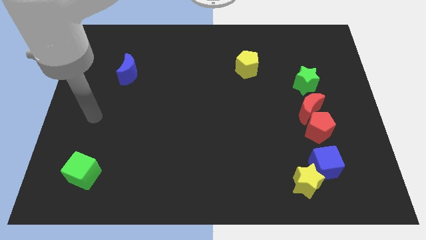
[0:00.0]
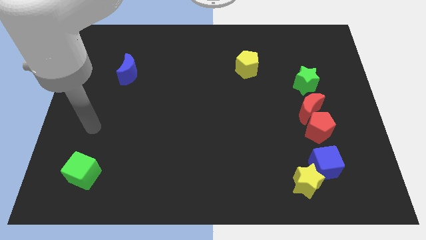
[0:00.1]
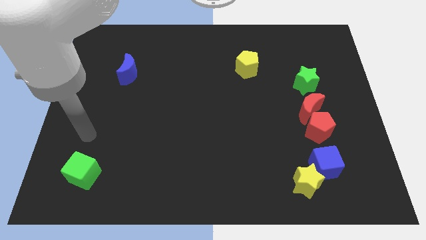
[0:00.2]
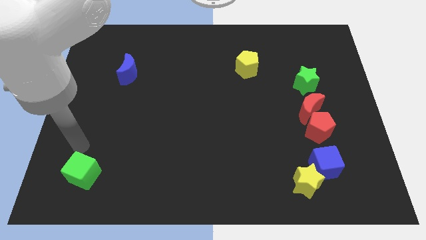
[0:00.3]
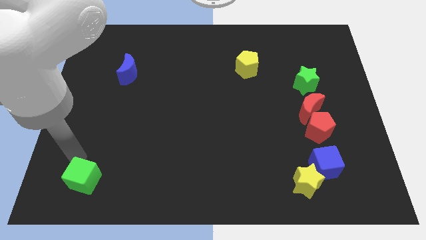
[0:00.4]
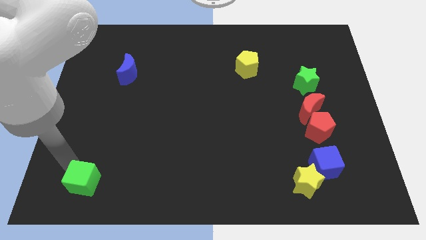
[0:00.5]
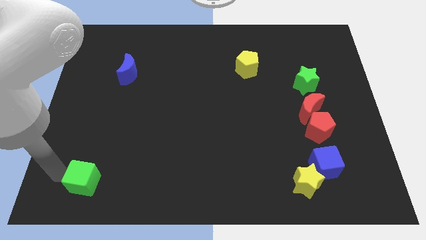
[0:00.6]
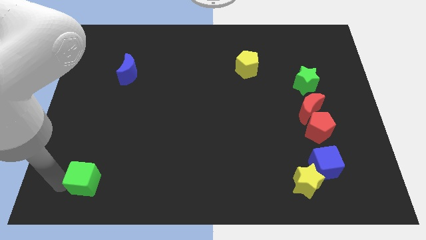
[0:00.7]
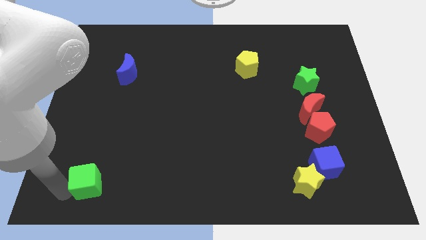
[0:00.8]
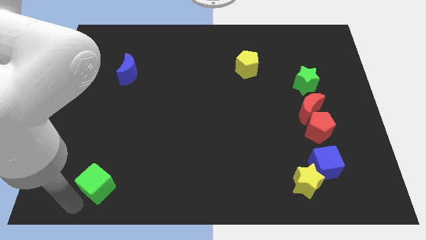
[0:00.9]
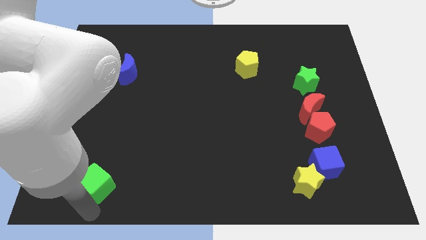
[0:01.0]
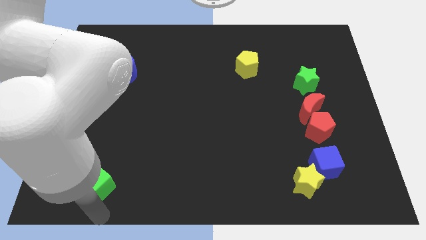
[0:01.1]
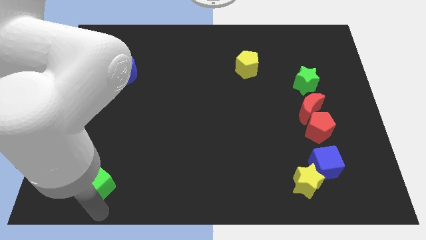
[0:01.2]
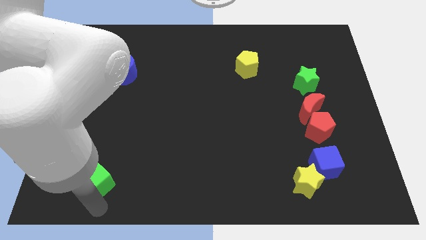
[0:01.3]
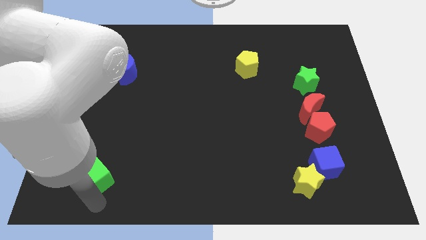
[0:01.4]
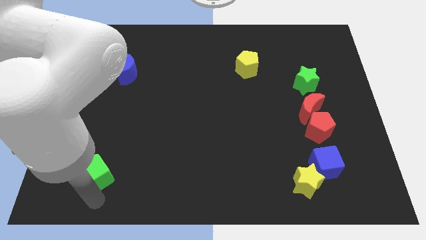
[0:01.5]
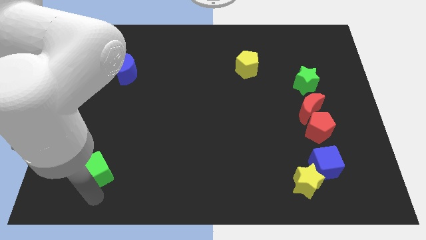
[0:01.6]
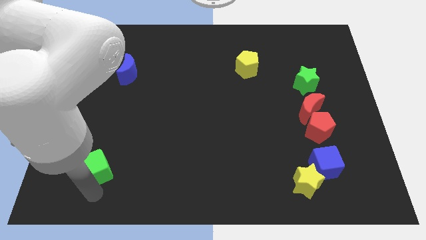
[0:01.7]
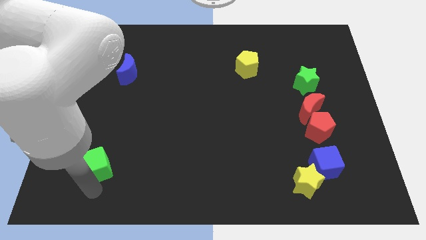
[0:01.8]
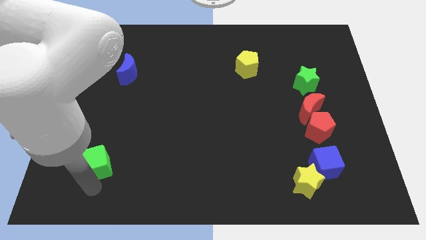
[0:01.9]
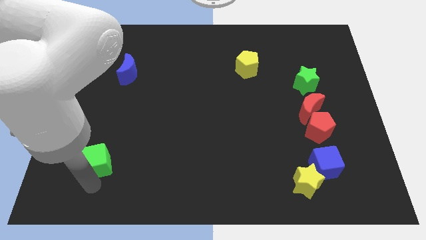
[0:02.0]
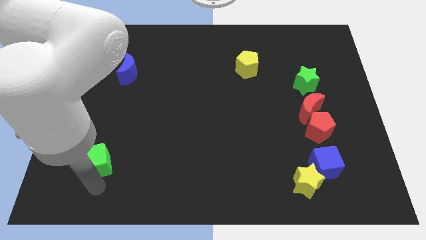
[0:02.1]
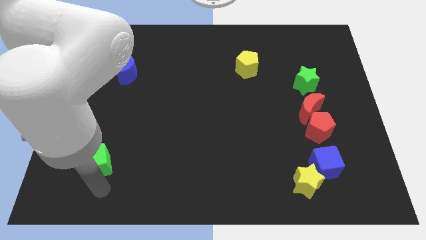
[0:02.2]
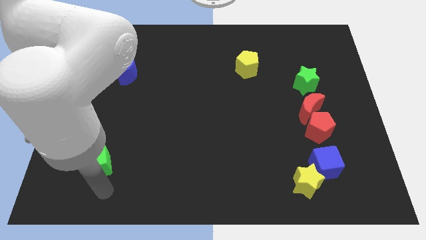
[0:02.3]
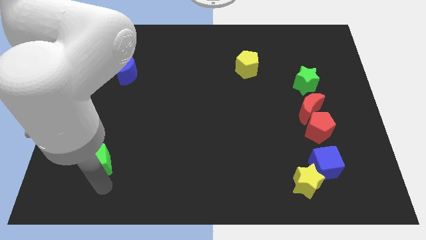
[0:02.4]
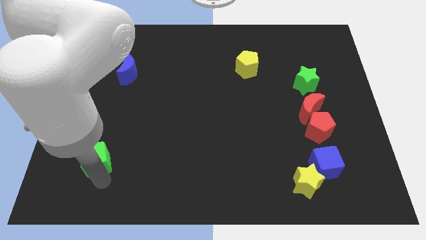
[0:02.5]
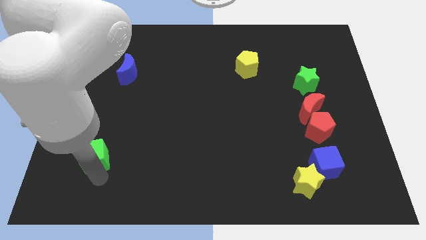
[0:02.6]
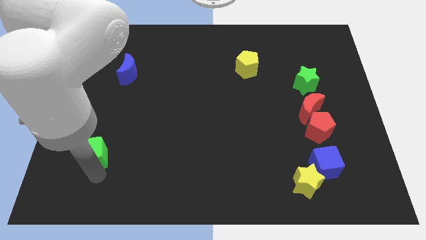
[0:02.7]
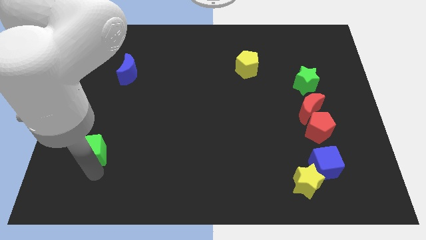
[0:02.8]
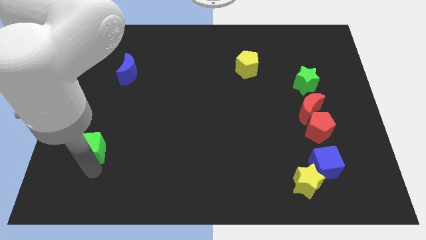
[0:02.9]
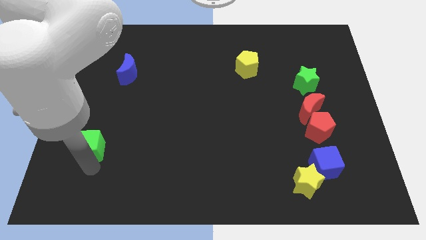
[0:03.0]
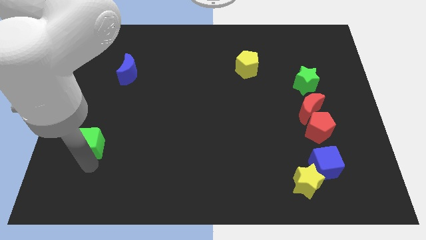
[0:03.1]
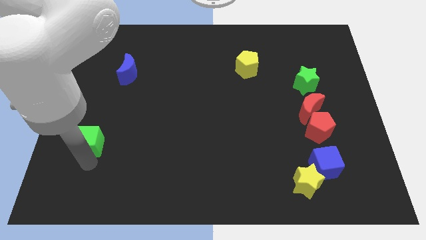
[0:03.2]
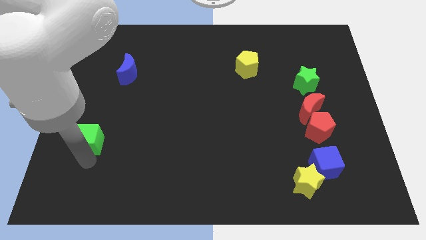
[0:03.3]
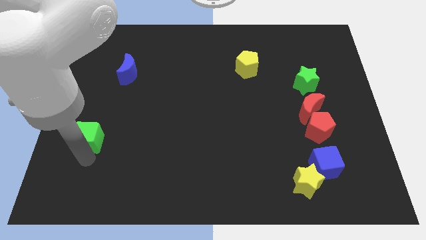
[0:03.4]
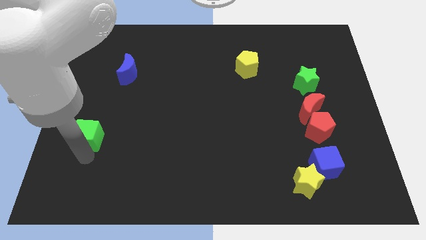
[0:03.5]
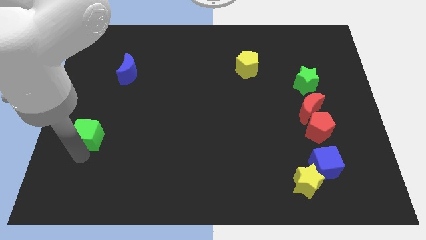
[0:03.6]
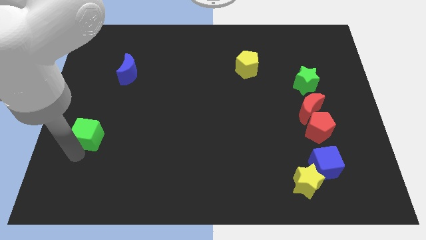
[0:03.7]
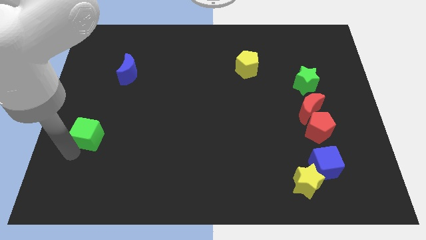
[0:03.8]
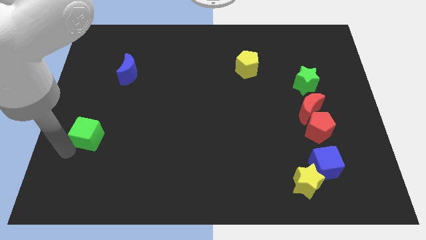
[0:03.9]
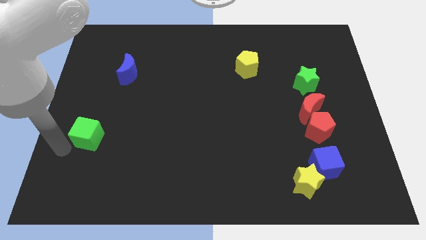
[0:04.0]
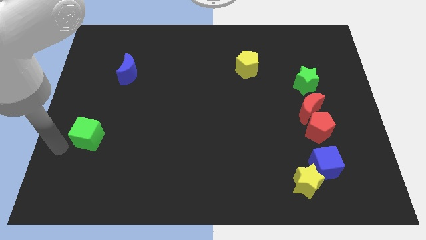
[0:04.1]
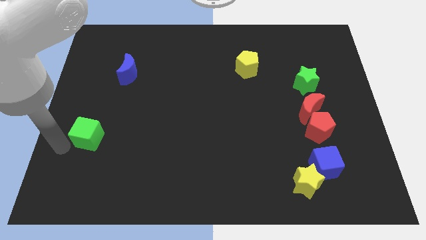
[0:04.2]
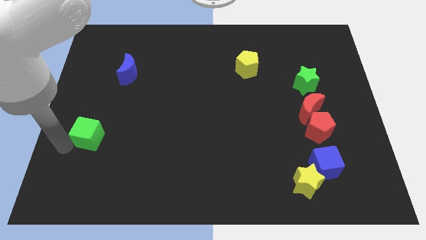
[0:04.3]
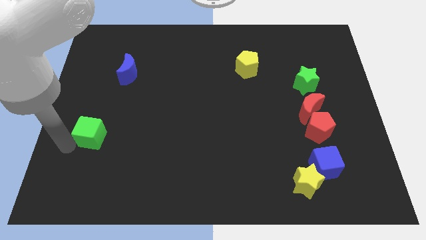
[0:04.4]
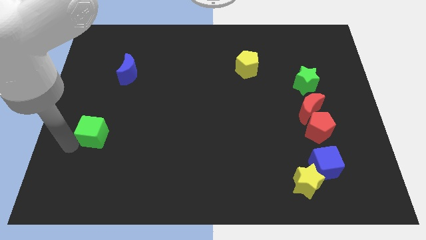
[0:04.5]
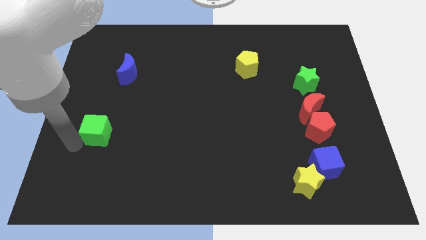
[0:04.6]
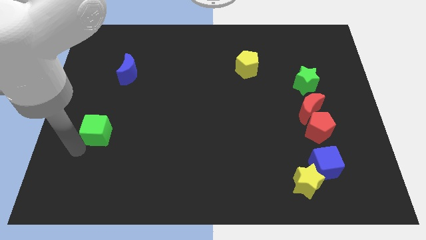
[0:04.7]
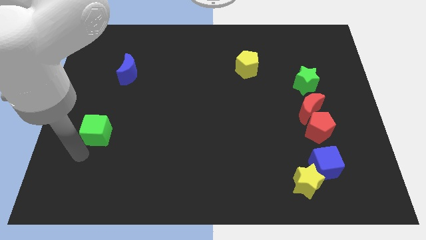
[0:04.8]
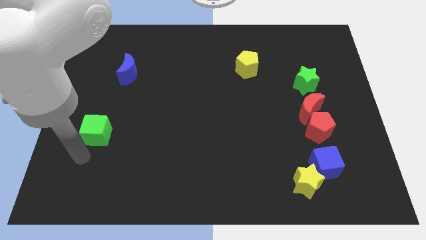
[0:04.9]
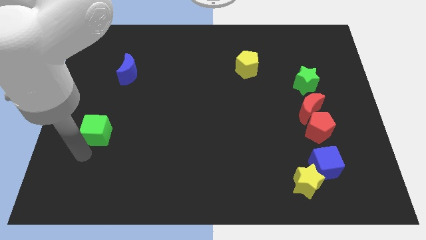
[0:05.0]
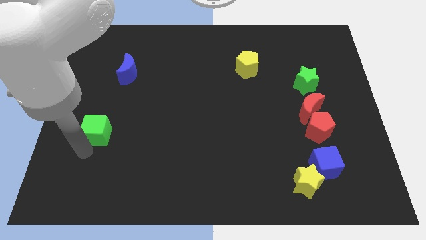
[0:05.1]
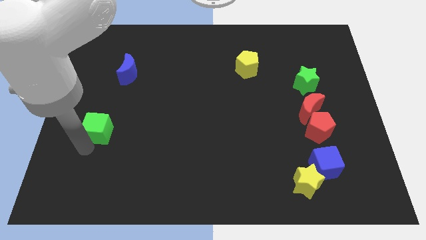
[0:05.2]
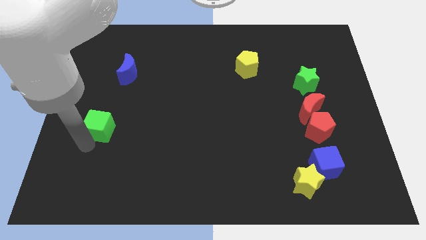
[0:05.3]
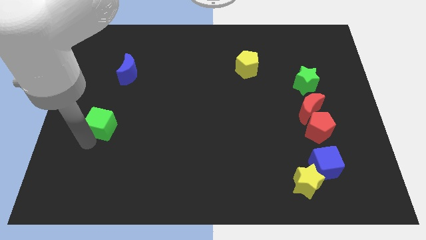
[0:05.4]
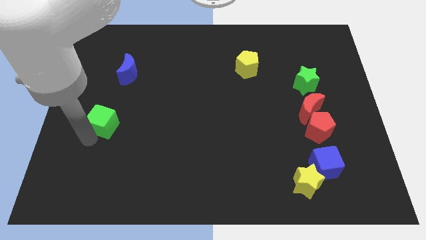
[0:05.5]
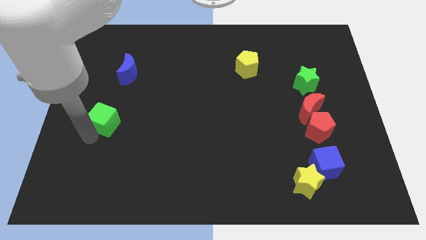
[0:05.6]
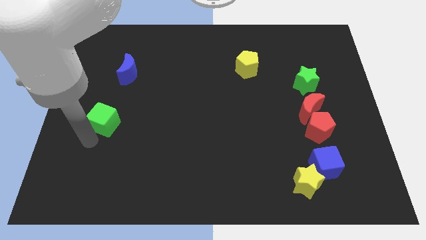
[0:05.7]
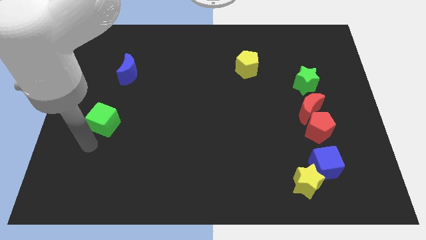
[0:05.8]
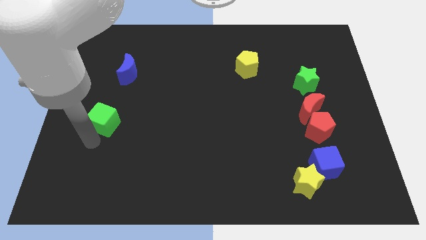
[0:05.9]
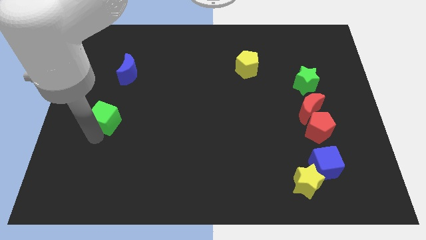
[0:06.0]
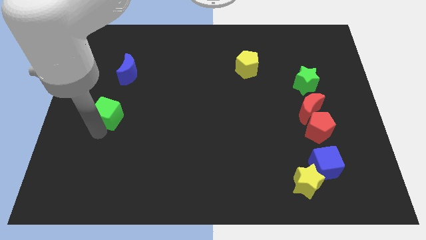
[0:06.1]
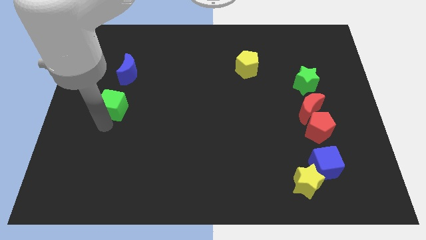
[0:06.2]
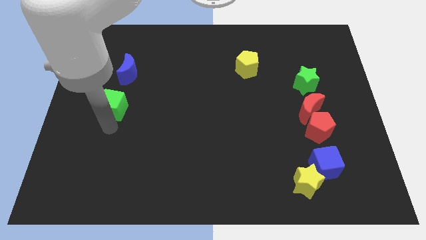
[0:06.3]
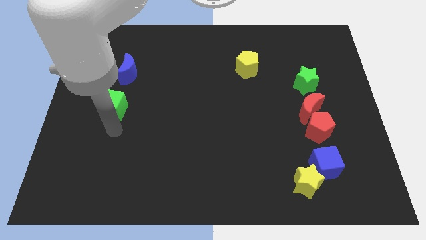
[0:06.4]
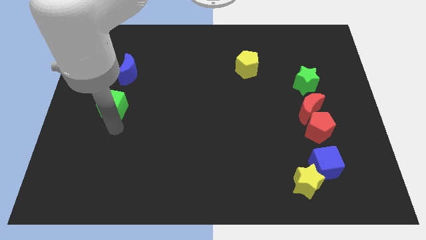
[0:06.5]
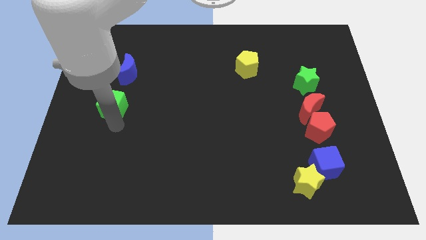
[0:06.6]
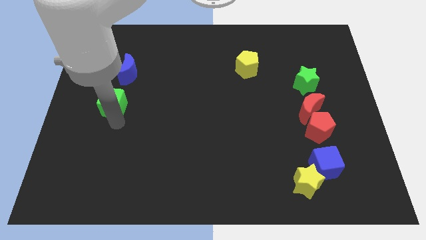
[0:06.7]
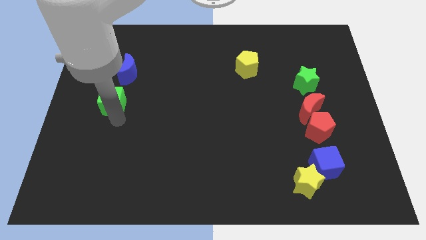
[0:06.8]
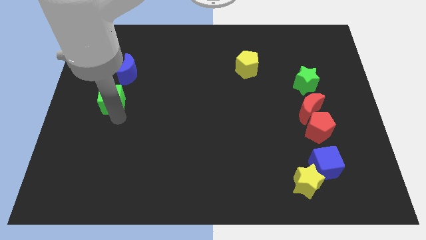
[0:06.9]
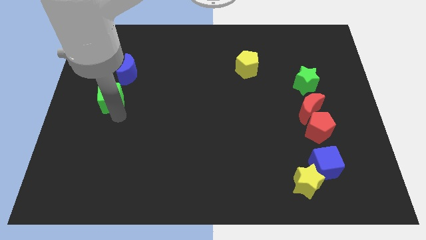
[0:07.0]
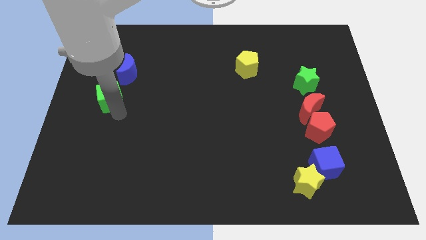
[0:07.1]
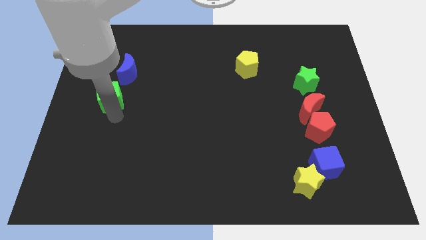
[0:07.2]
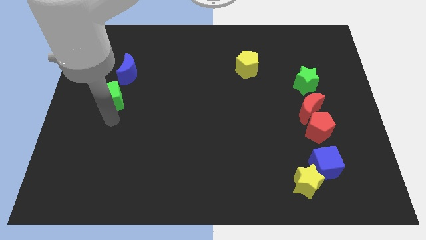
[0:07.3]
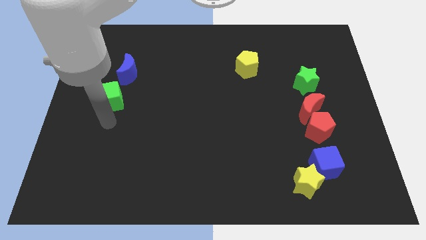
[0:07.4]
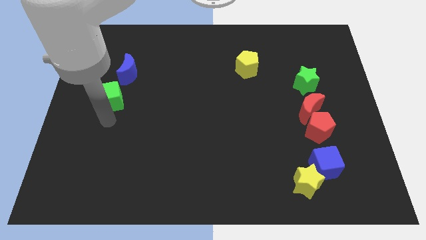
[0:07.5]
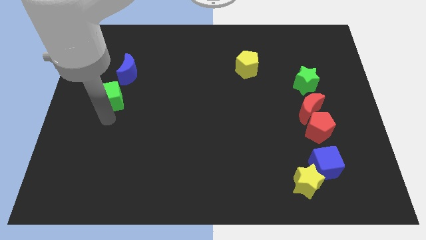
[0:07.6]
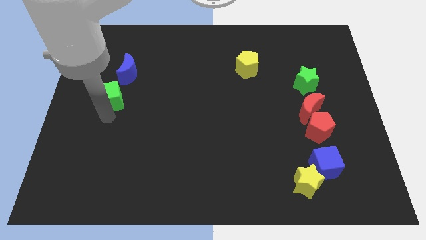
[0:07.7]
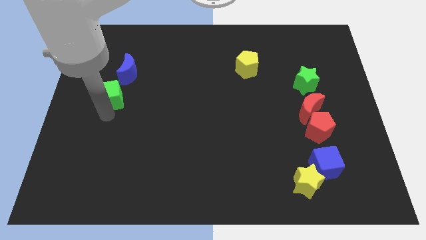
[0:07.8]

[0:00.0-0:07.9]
push the green cube up

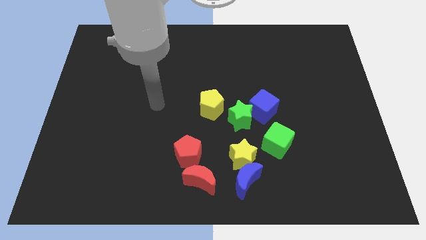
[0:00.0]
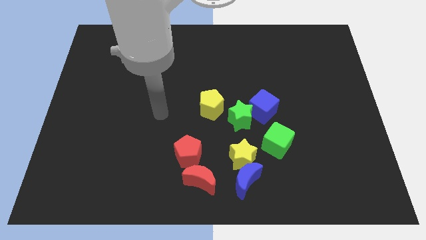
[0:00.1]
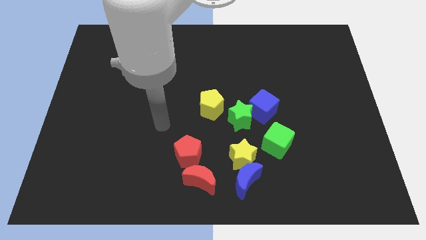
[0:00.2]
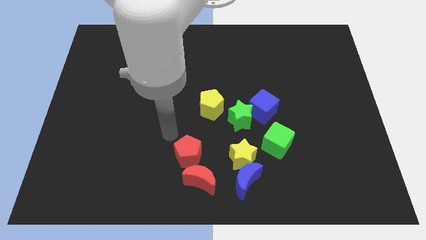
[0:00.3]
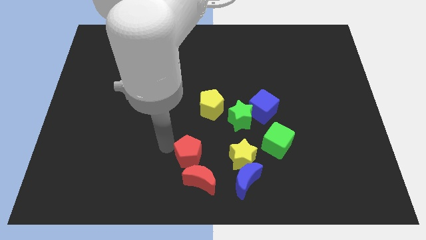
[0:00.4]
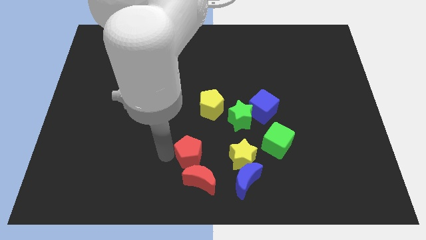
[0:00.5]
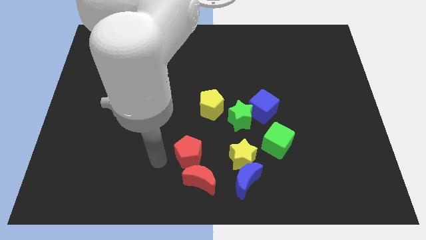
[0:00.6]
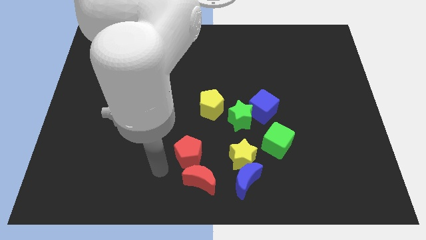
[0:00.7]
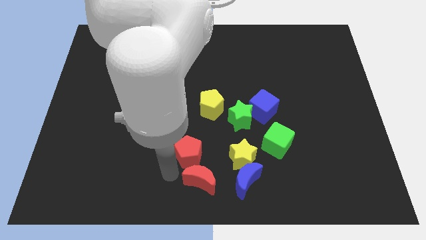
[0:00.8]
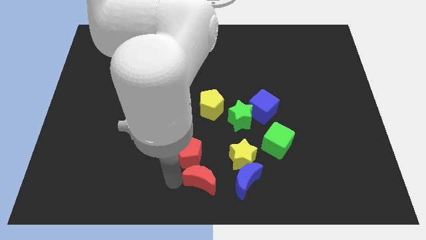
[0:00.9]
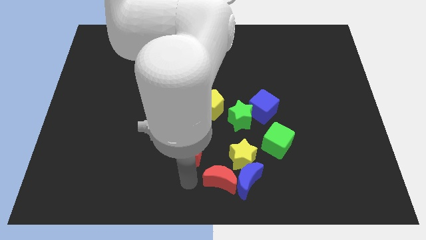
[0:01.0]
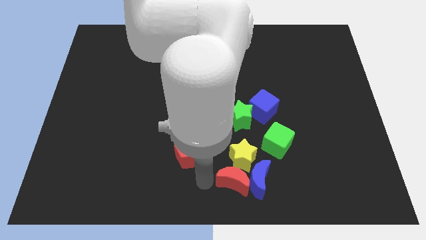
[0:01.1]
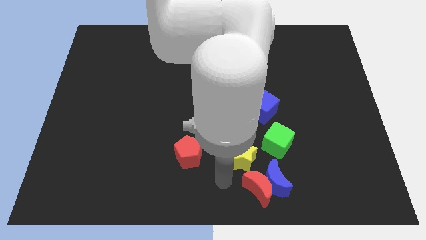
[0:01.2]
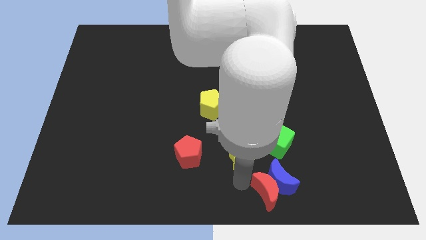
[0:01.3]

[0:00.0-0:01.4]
slide the blue moon somewhat right
